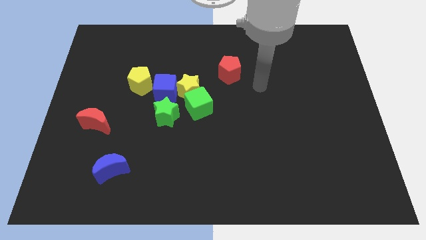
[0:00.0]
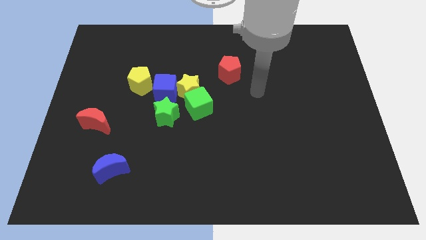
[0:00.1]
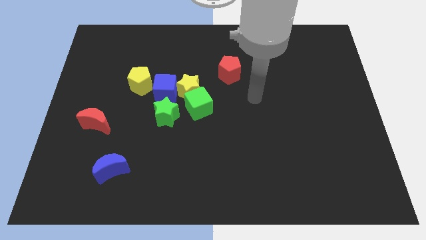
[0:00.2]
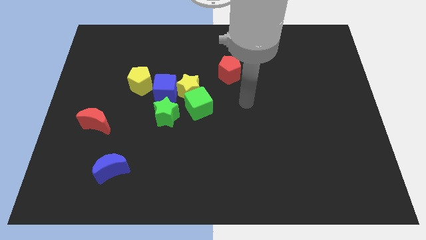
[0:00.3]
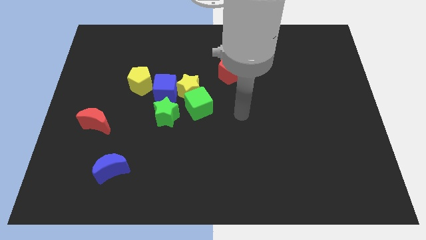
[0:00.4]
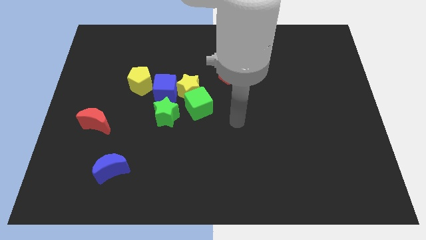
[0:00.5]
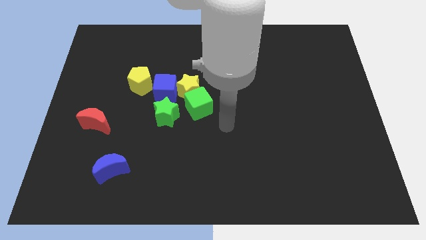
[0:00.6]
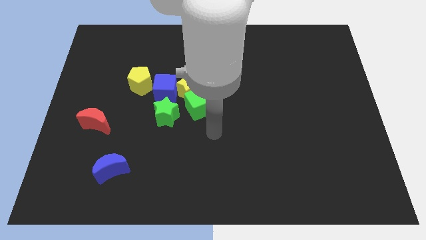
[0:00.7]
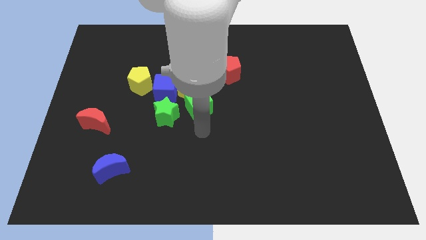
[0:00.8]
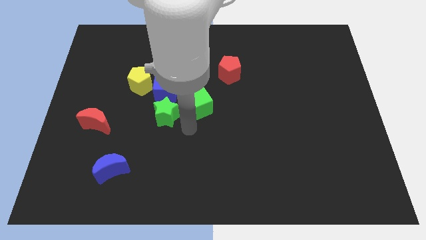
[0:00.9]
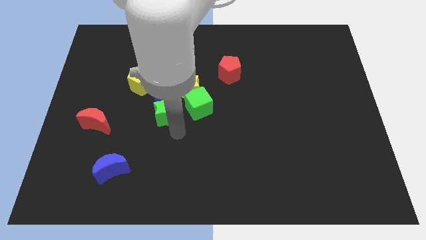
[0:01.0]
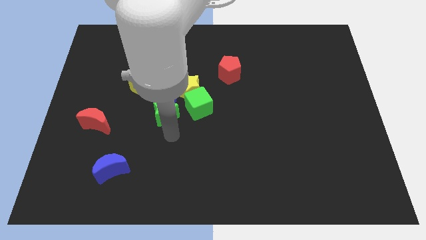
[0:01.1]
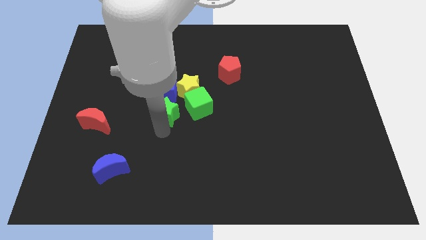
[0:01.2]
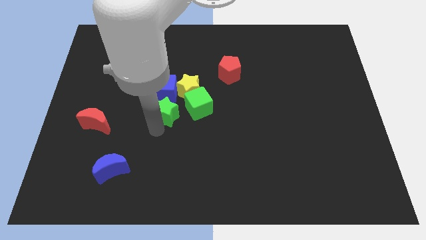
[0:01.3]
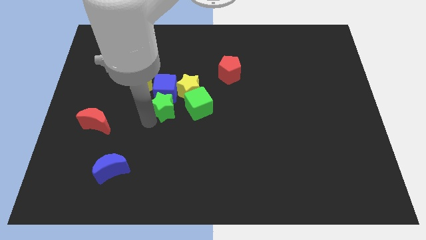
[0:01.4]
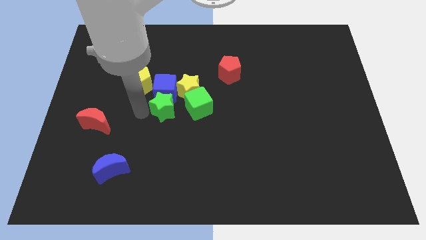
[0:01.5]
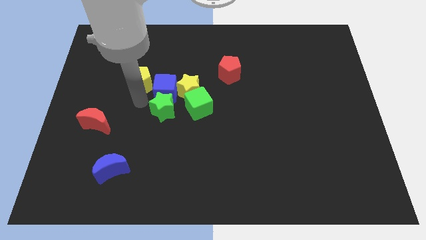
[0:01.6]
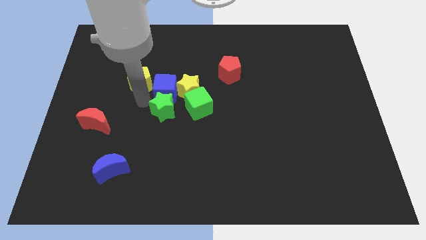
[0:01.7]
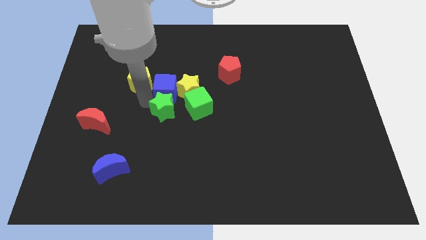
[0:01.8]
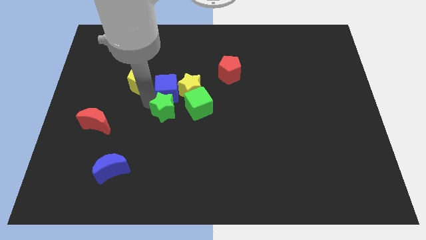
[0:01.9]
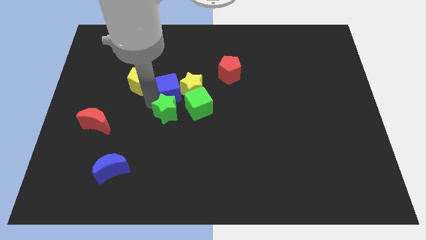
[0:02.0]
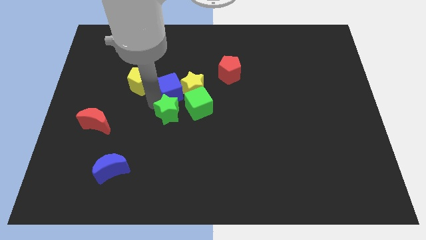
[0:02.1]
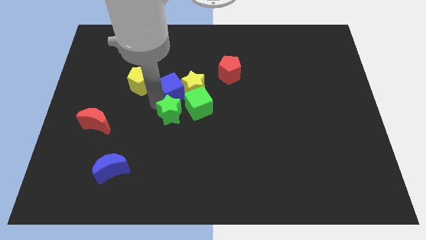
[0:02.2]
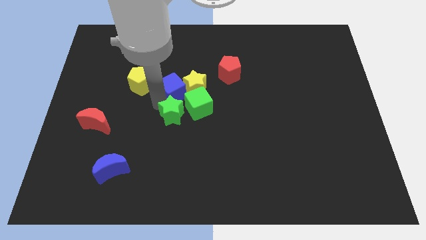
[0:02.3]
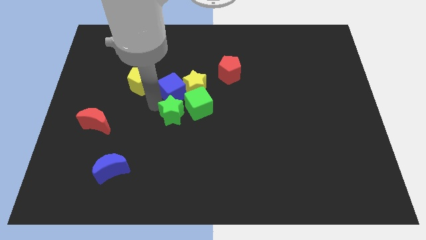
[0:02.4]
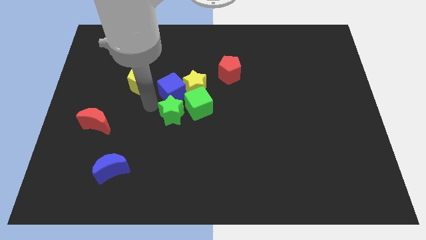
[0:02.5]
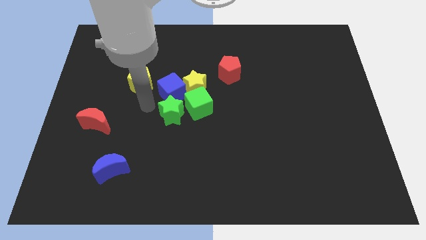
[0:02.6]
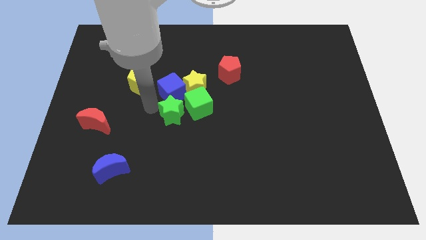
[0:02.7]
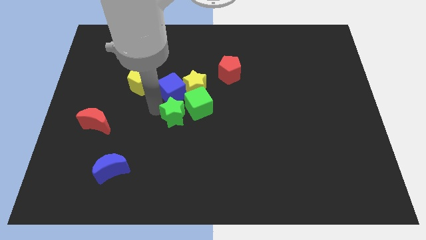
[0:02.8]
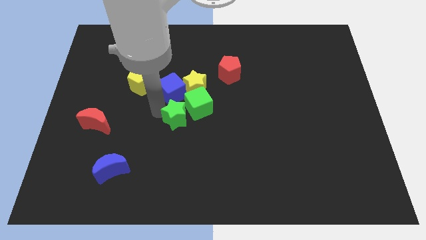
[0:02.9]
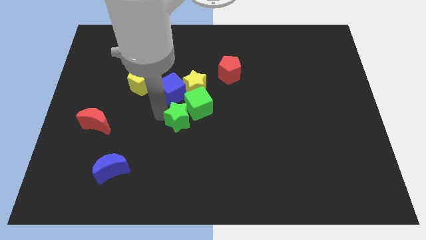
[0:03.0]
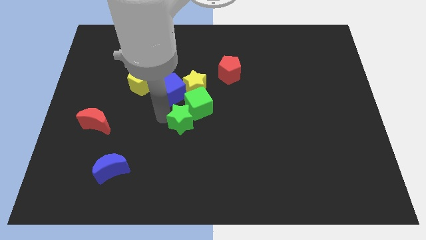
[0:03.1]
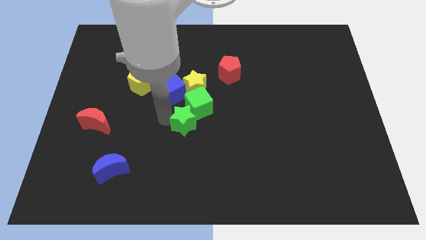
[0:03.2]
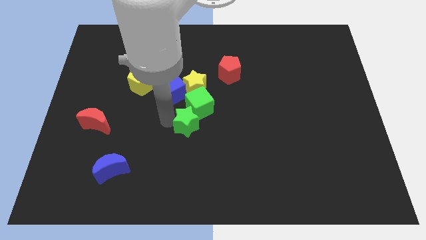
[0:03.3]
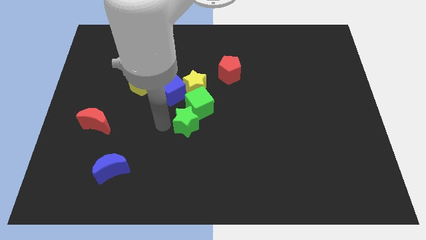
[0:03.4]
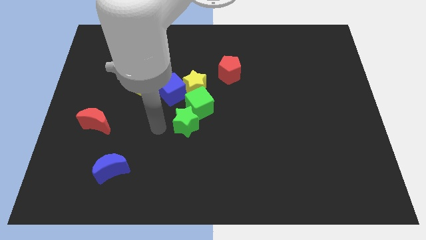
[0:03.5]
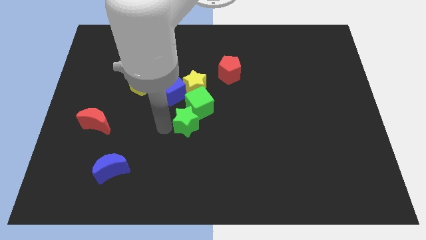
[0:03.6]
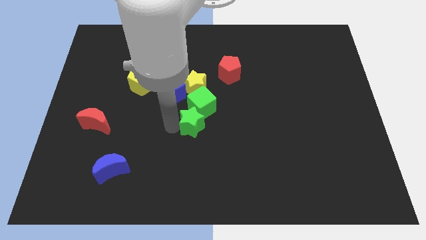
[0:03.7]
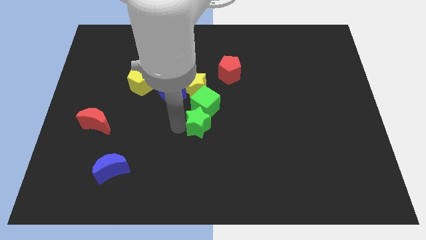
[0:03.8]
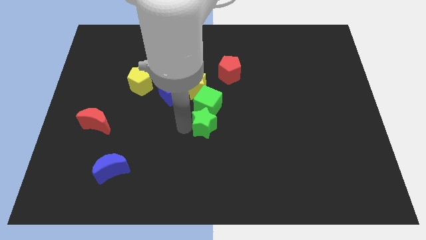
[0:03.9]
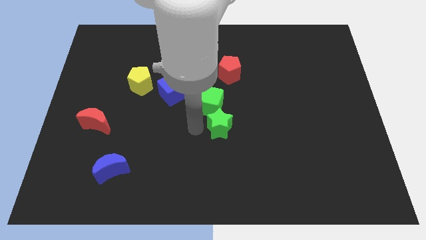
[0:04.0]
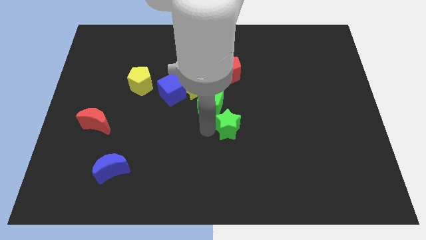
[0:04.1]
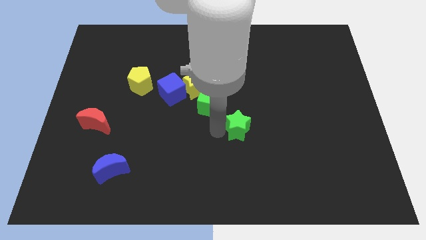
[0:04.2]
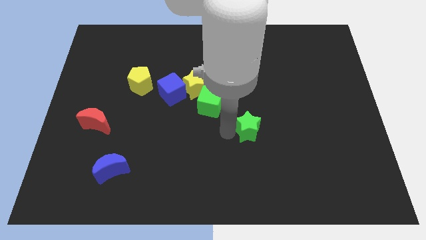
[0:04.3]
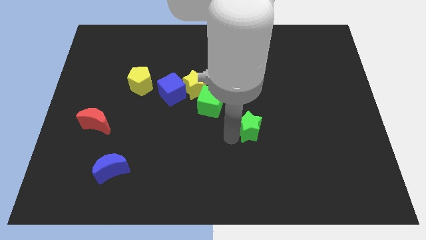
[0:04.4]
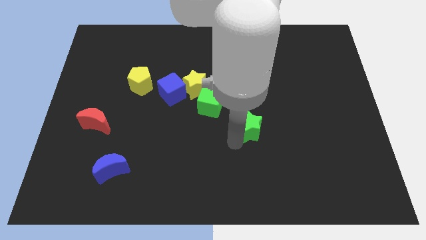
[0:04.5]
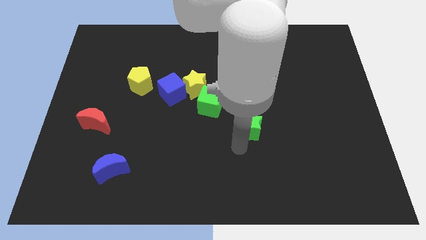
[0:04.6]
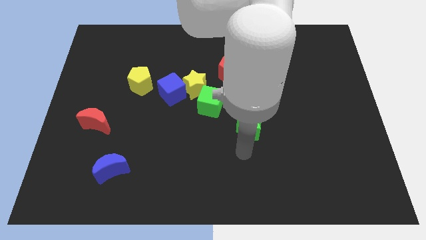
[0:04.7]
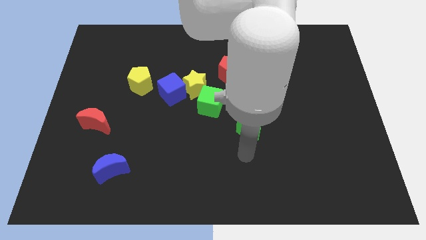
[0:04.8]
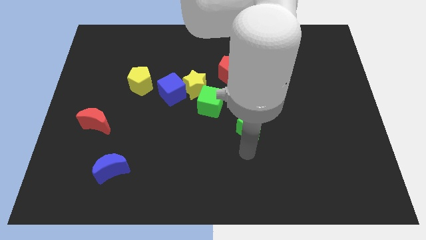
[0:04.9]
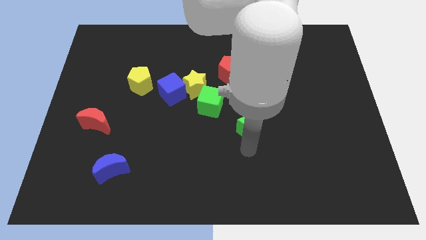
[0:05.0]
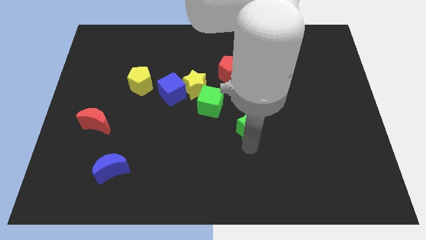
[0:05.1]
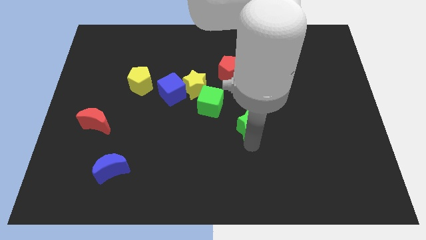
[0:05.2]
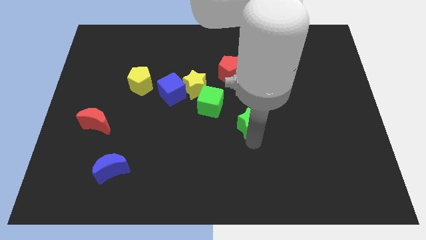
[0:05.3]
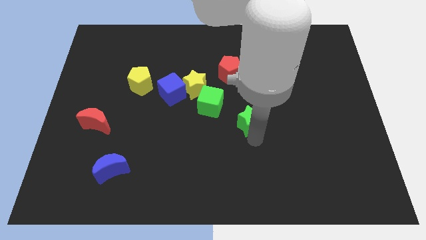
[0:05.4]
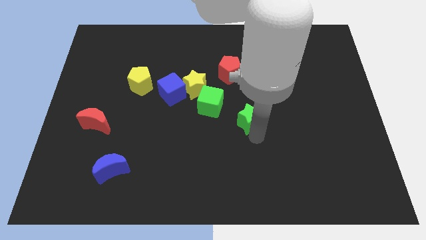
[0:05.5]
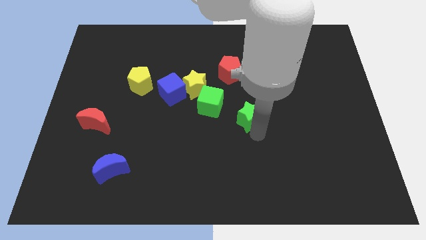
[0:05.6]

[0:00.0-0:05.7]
put the green star to the right of the green cube

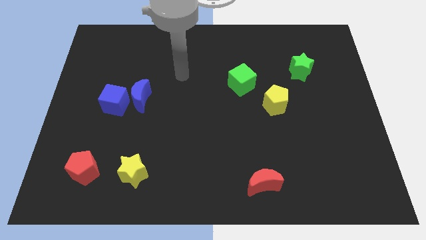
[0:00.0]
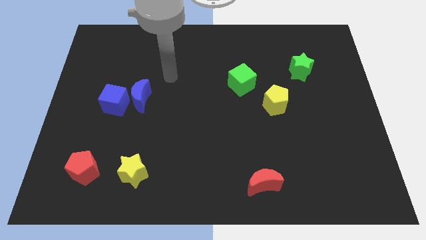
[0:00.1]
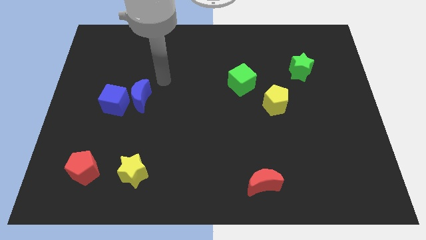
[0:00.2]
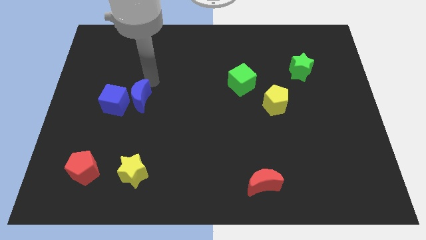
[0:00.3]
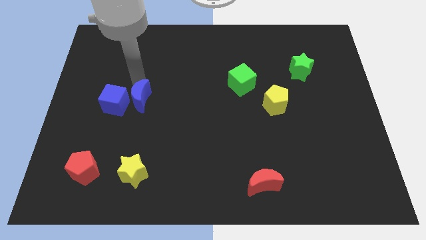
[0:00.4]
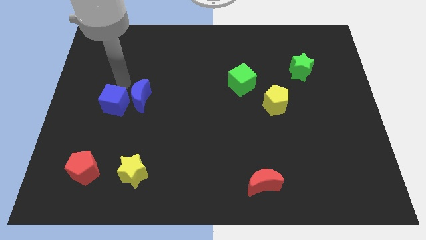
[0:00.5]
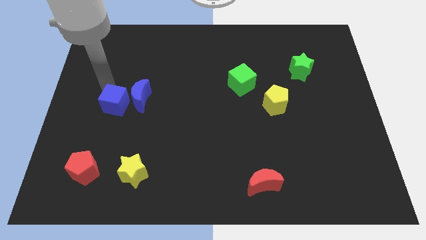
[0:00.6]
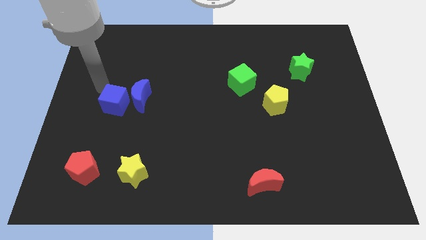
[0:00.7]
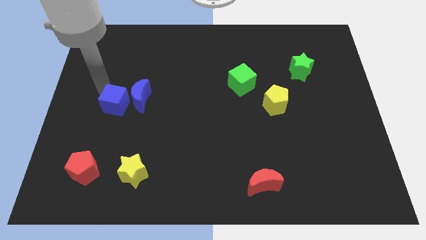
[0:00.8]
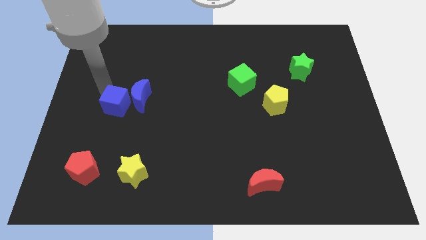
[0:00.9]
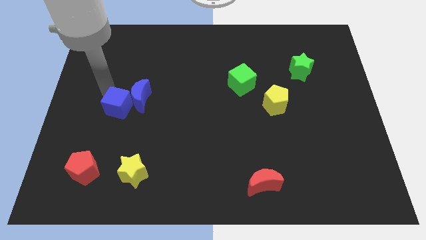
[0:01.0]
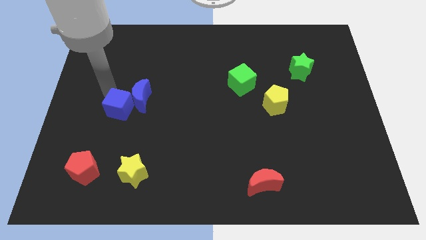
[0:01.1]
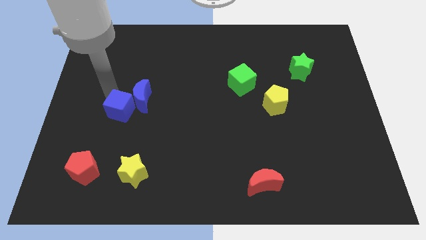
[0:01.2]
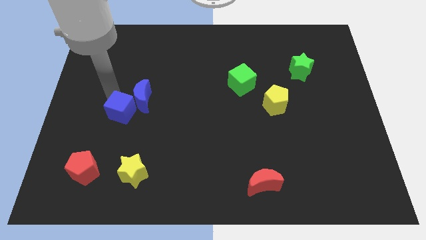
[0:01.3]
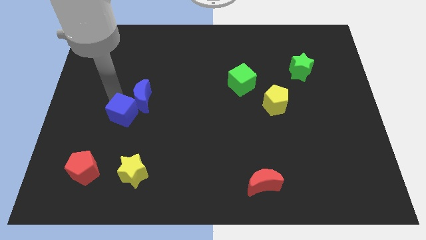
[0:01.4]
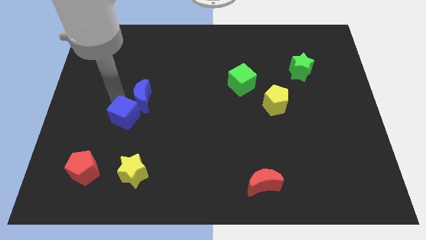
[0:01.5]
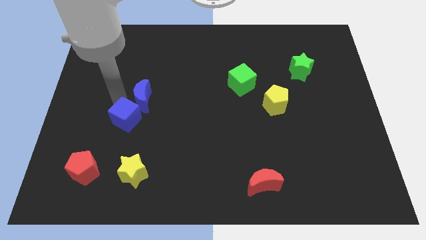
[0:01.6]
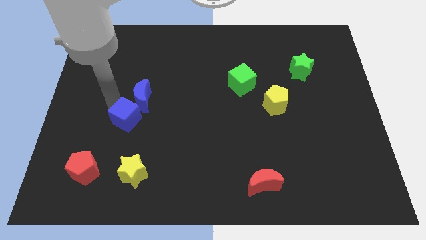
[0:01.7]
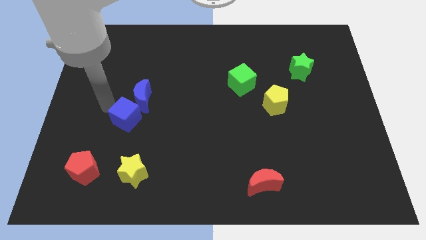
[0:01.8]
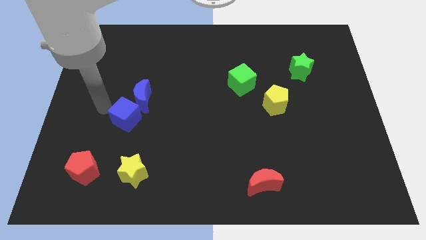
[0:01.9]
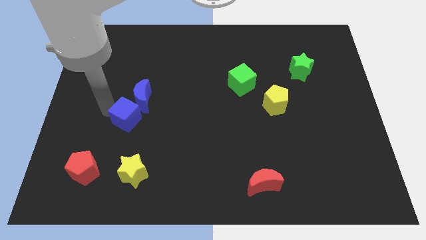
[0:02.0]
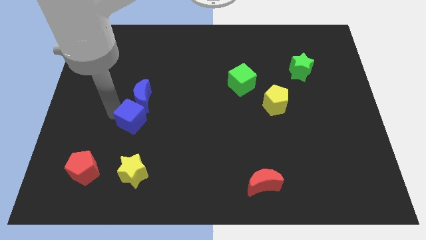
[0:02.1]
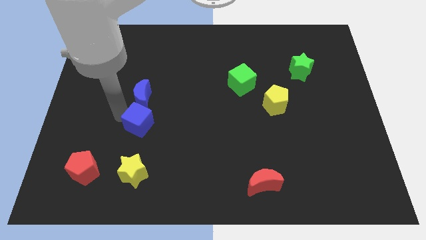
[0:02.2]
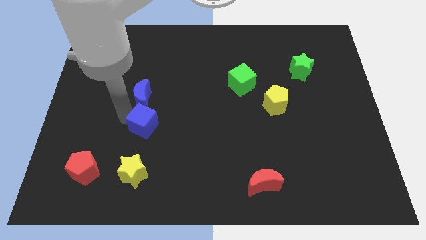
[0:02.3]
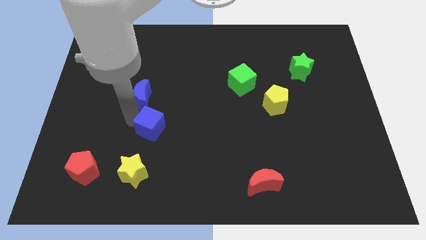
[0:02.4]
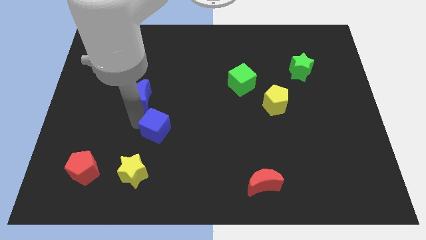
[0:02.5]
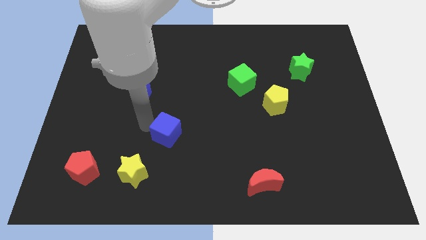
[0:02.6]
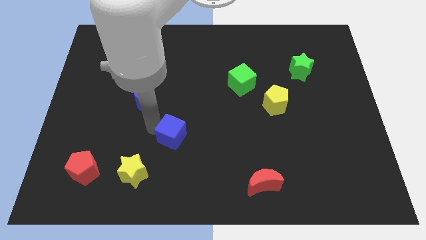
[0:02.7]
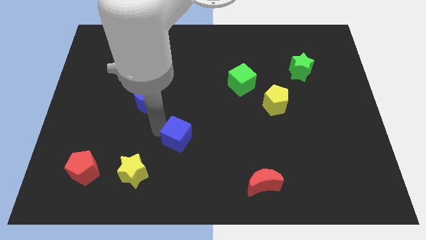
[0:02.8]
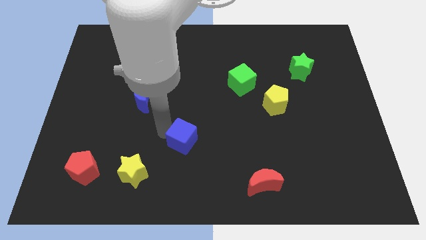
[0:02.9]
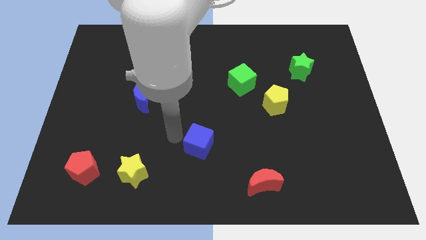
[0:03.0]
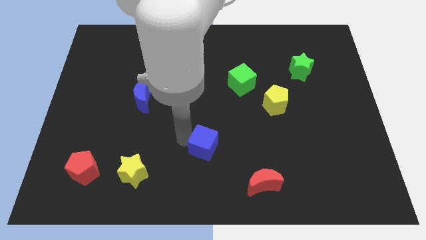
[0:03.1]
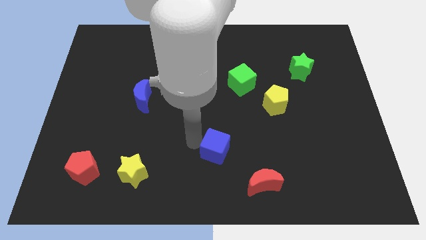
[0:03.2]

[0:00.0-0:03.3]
slide the blue cube to the top left of the red moon
